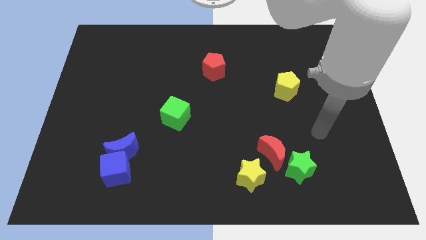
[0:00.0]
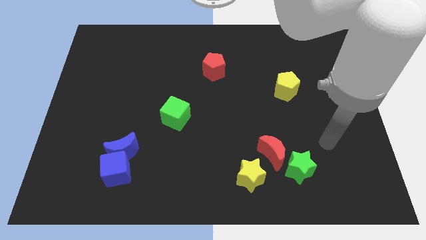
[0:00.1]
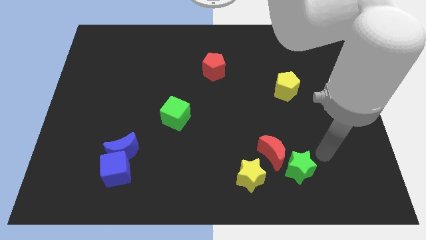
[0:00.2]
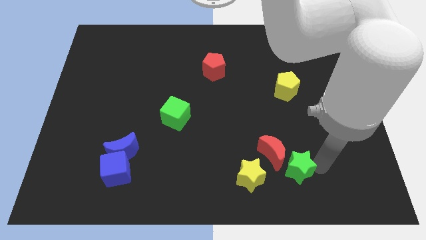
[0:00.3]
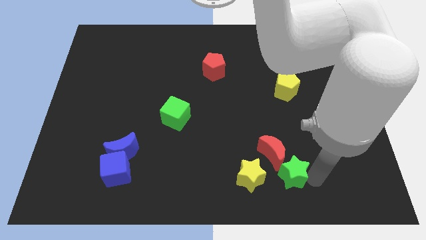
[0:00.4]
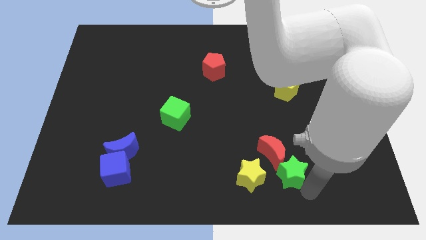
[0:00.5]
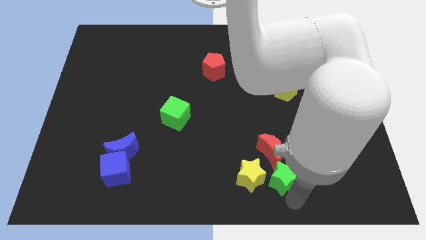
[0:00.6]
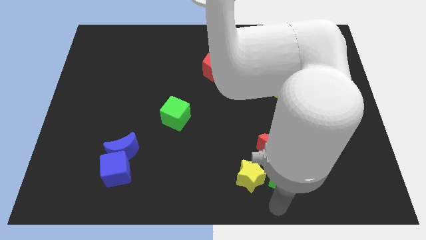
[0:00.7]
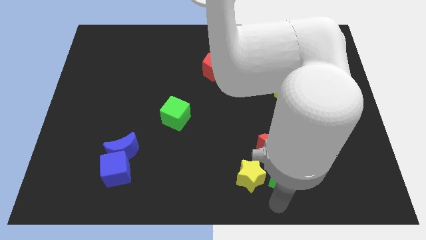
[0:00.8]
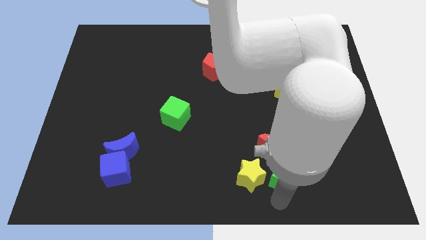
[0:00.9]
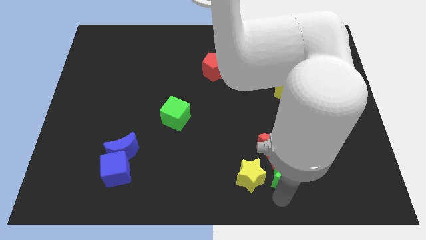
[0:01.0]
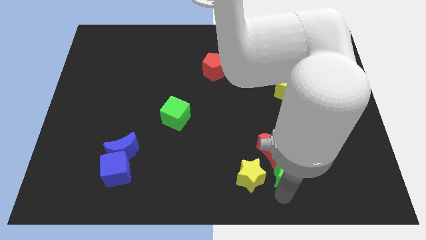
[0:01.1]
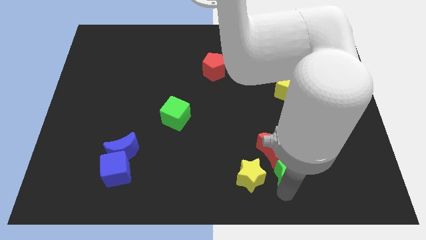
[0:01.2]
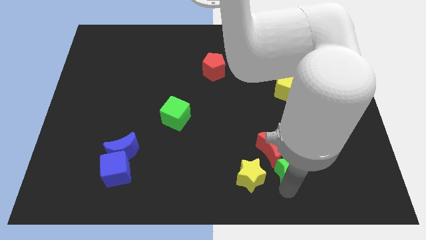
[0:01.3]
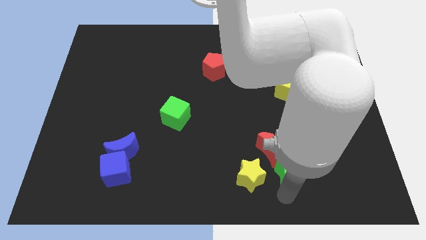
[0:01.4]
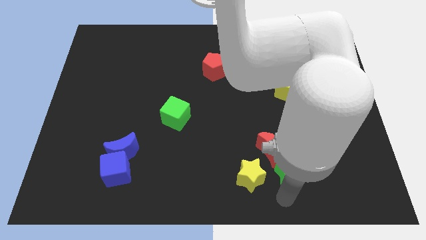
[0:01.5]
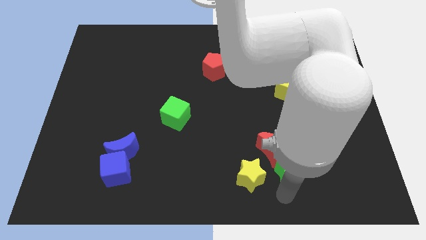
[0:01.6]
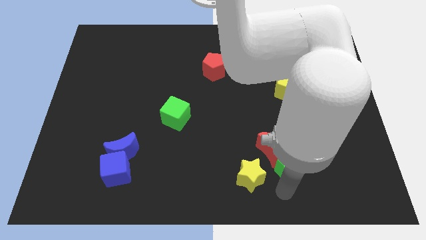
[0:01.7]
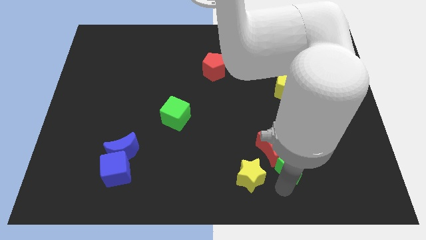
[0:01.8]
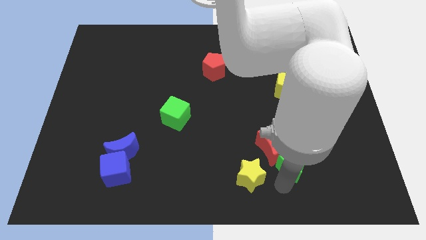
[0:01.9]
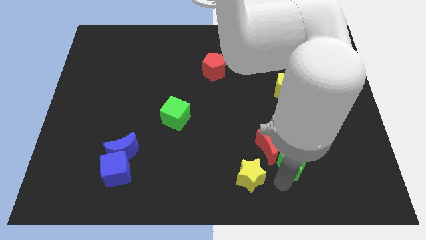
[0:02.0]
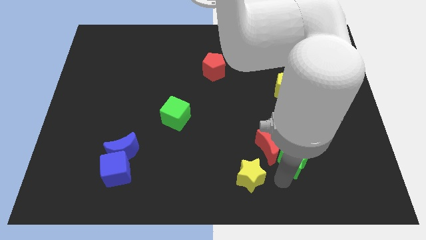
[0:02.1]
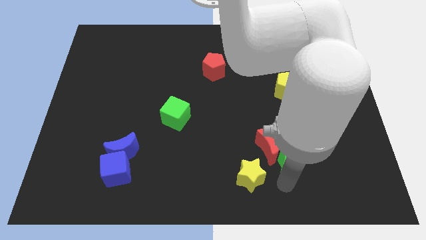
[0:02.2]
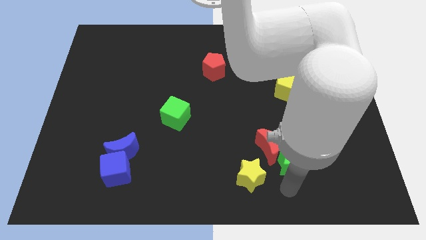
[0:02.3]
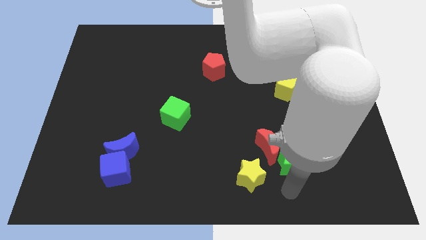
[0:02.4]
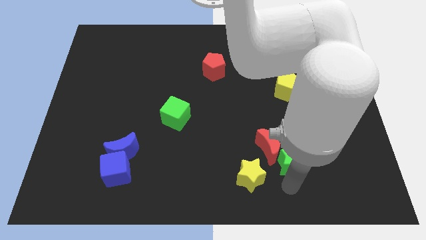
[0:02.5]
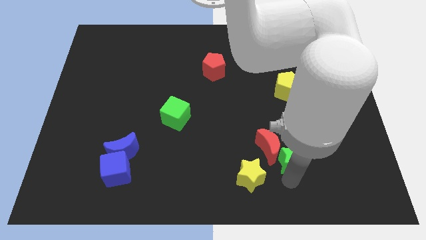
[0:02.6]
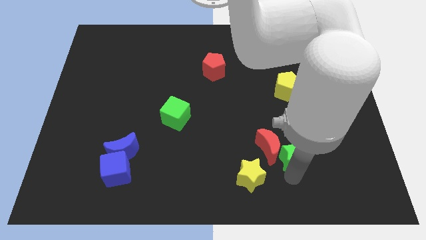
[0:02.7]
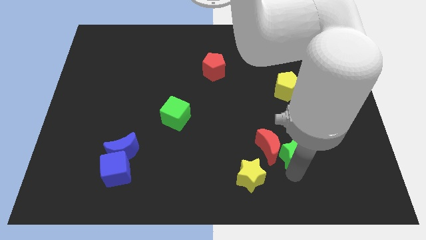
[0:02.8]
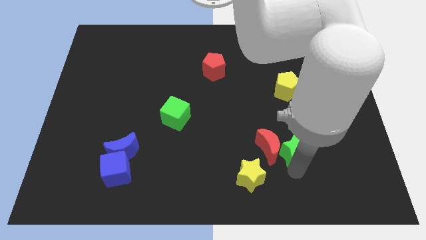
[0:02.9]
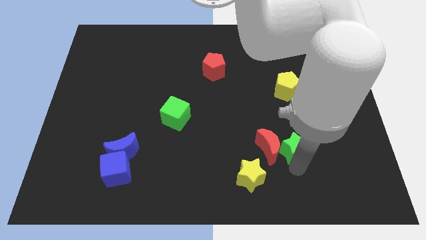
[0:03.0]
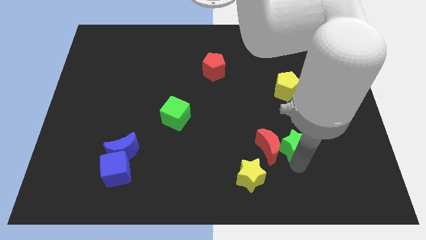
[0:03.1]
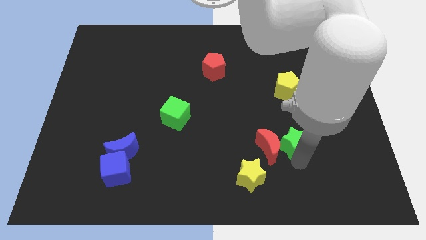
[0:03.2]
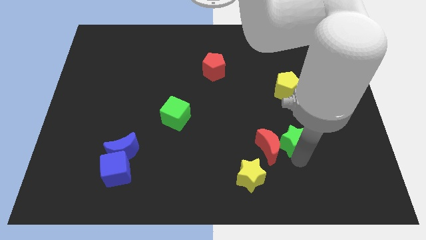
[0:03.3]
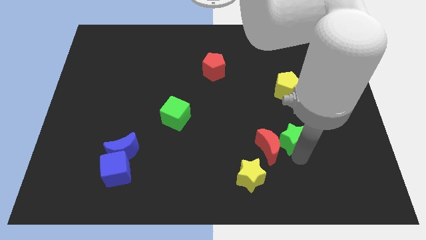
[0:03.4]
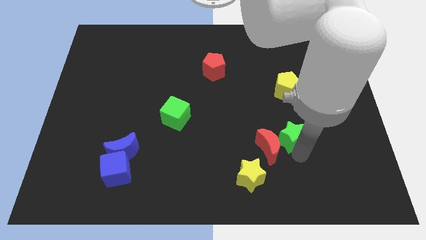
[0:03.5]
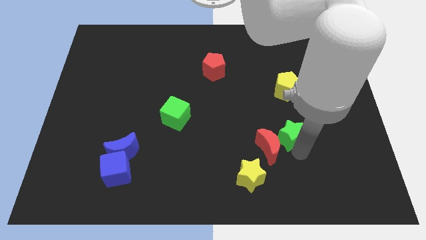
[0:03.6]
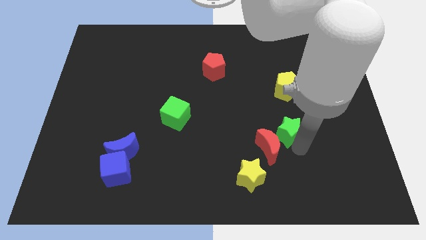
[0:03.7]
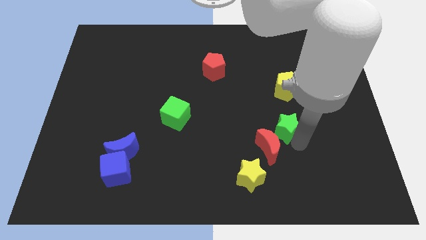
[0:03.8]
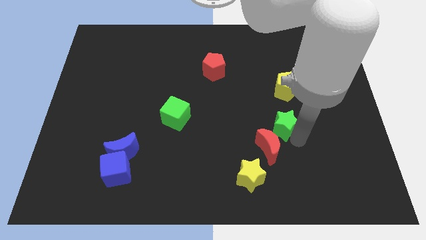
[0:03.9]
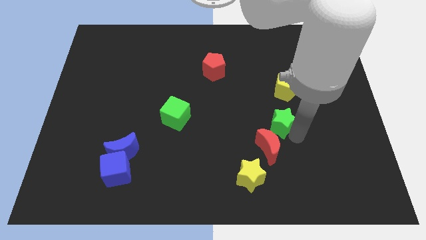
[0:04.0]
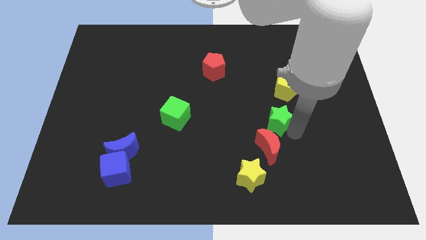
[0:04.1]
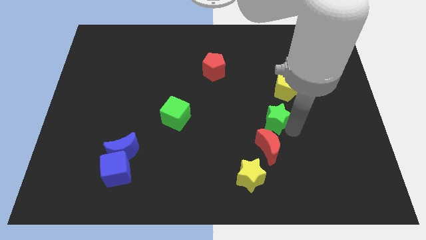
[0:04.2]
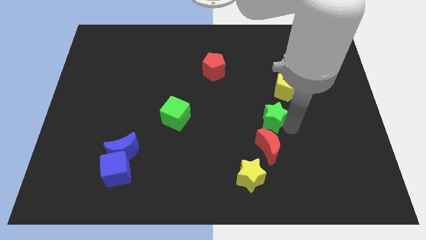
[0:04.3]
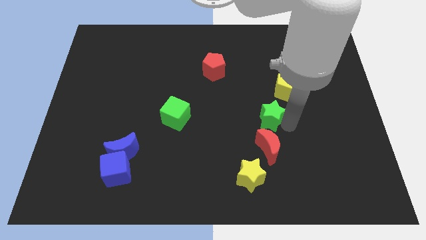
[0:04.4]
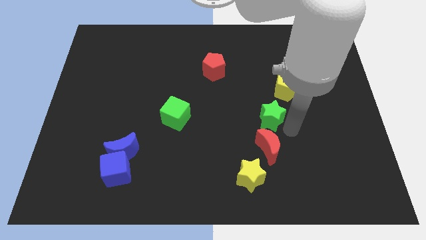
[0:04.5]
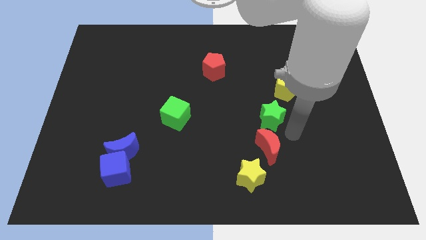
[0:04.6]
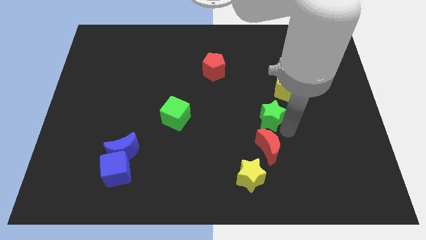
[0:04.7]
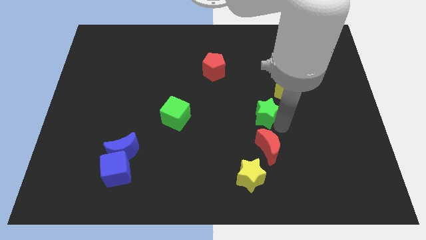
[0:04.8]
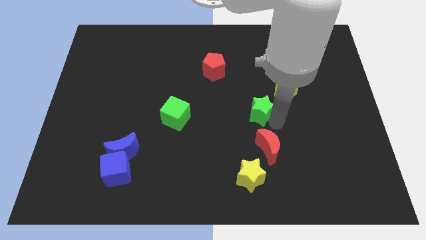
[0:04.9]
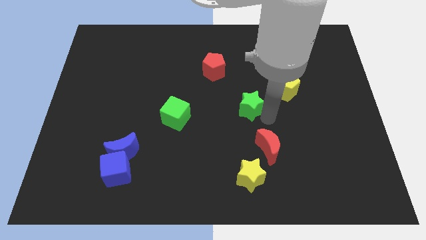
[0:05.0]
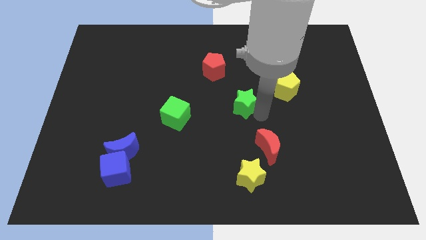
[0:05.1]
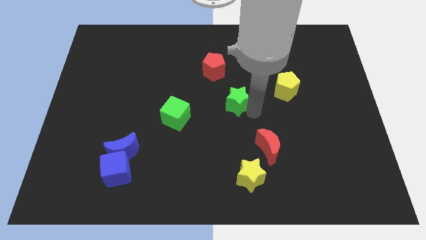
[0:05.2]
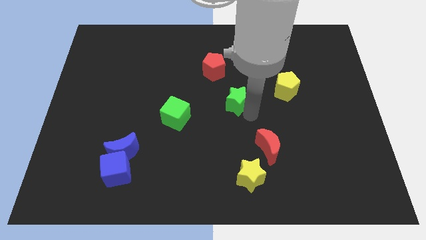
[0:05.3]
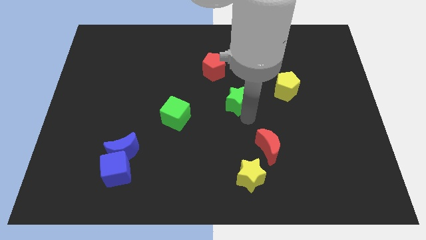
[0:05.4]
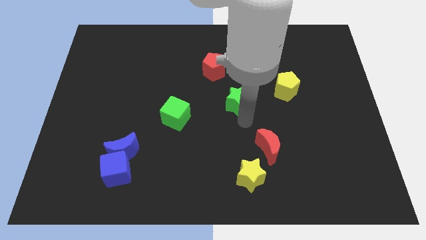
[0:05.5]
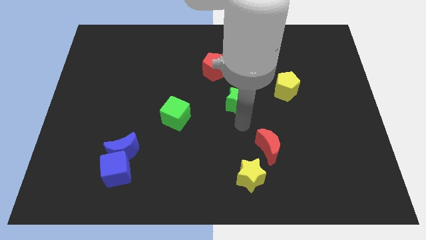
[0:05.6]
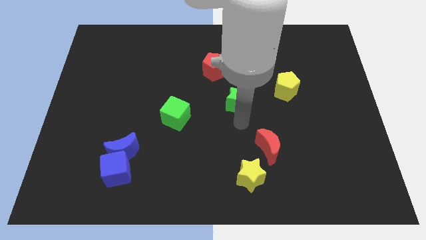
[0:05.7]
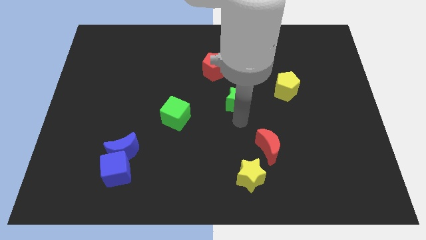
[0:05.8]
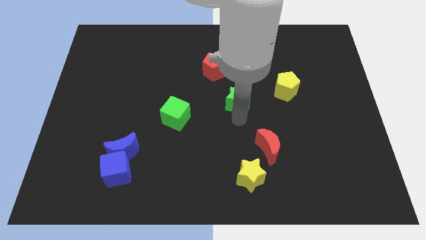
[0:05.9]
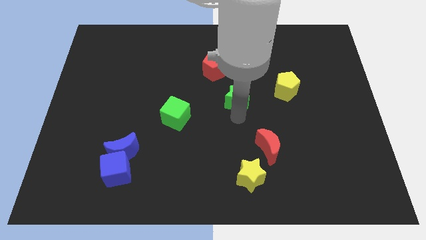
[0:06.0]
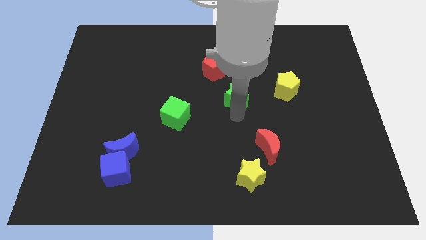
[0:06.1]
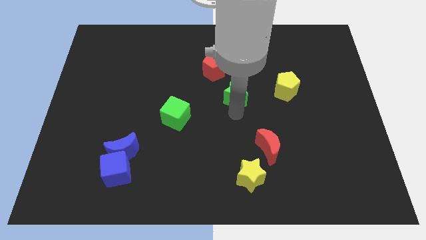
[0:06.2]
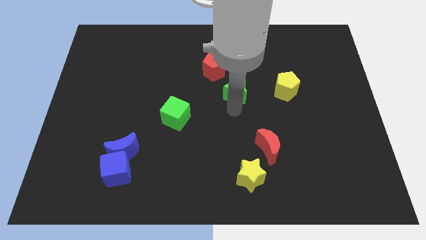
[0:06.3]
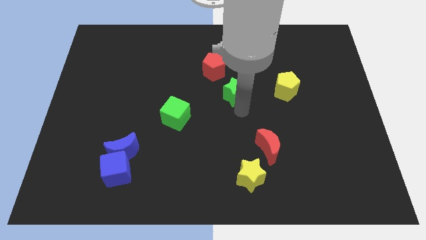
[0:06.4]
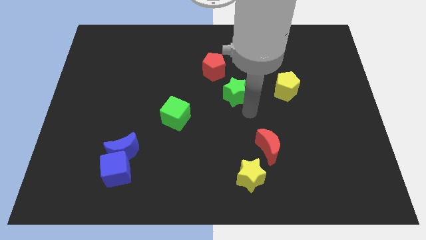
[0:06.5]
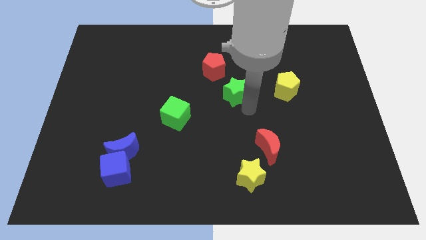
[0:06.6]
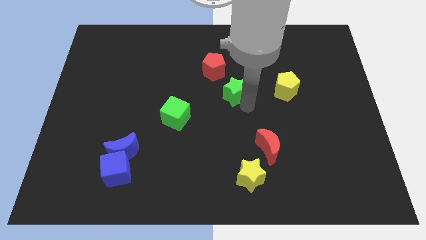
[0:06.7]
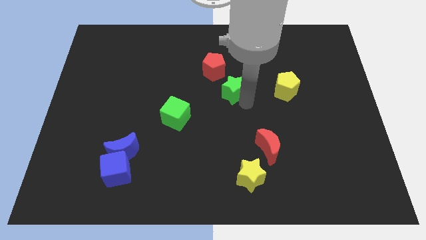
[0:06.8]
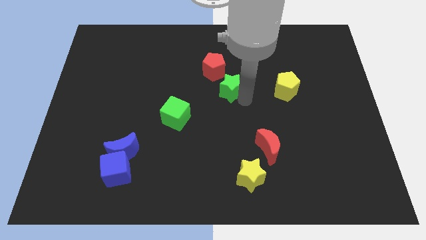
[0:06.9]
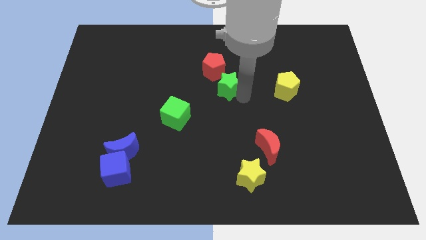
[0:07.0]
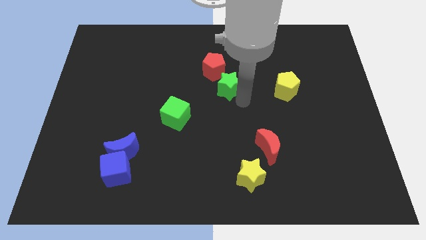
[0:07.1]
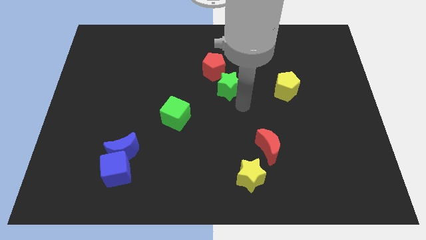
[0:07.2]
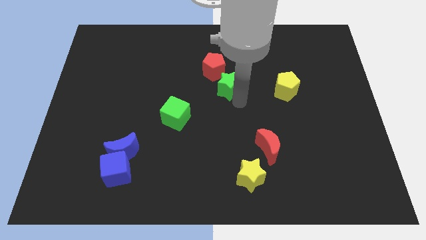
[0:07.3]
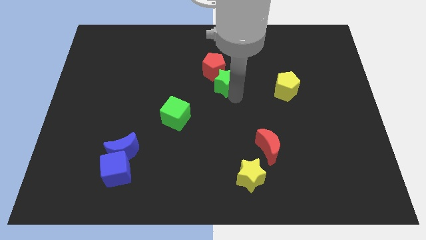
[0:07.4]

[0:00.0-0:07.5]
move the green star close to the red pentagon

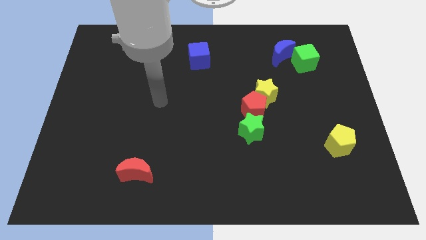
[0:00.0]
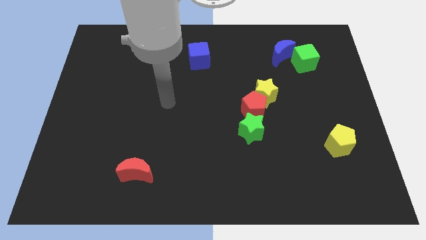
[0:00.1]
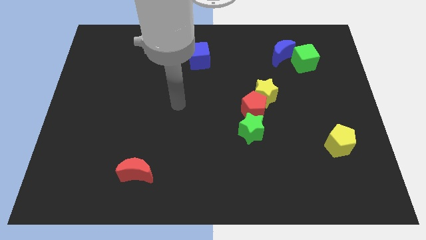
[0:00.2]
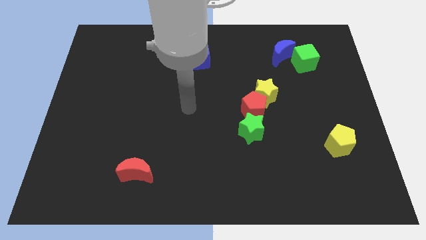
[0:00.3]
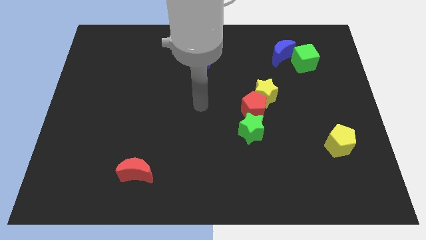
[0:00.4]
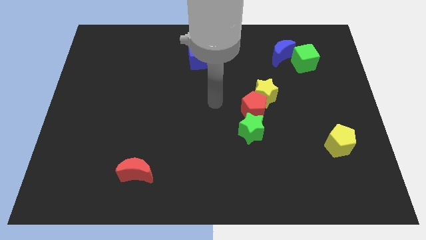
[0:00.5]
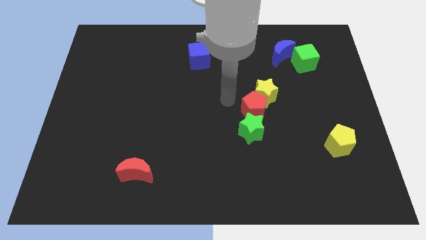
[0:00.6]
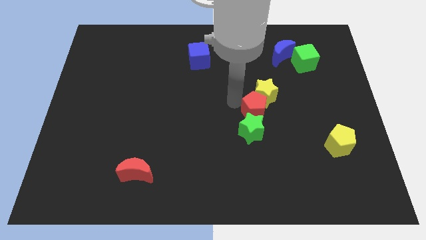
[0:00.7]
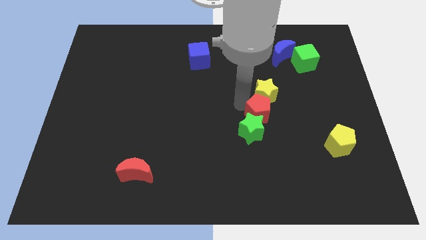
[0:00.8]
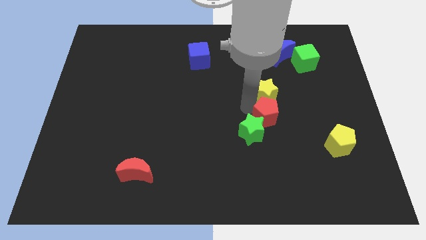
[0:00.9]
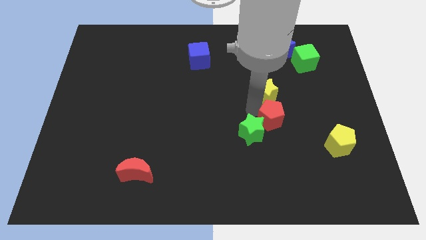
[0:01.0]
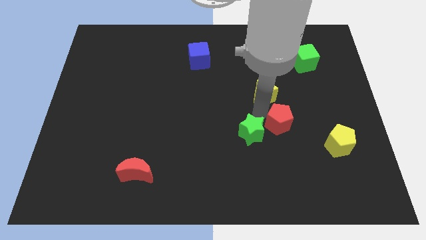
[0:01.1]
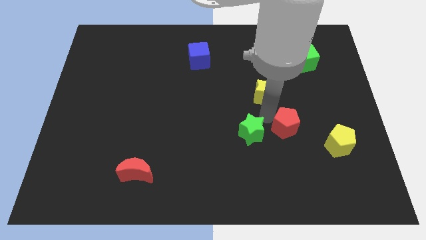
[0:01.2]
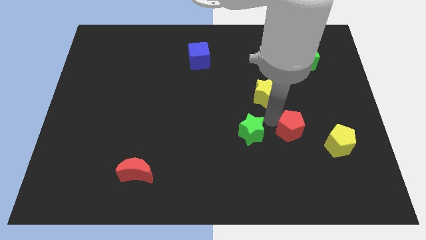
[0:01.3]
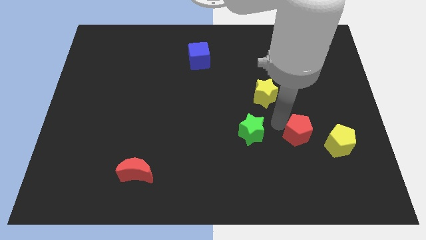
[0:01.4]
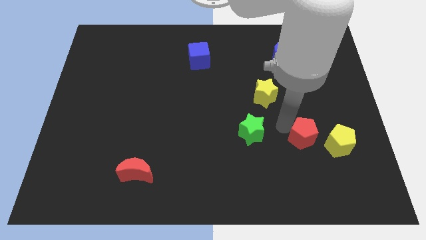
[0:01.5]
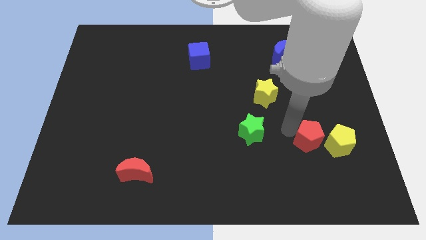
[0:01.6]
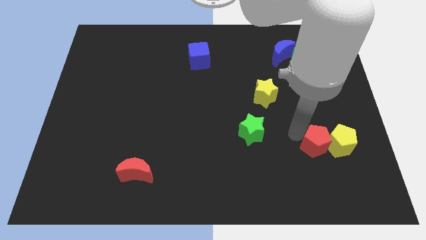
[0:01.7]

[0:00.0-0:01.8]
push the red pentagon to the yellow pentagon
